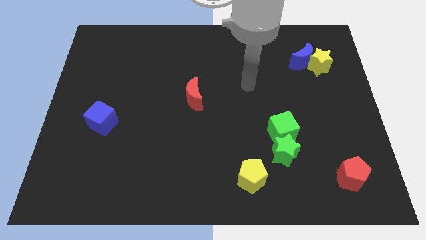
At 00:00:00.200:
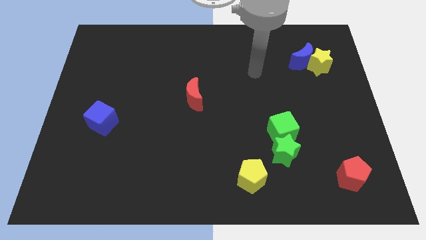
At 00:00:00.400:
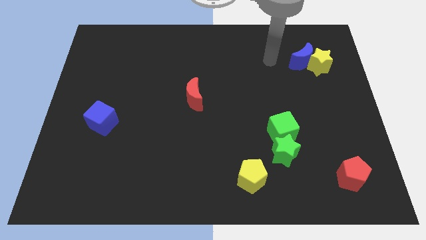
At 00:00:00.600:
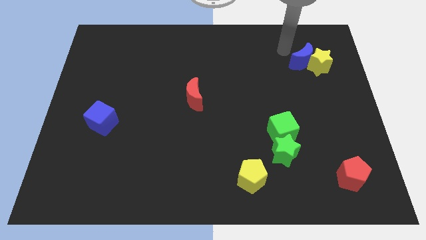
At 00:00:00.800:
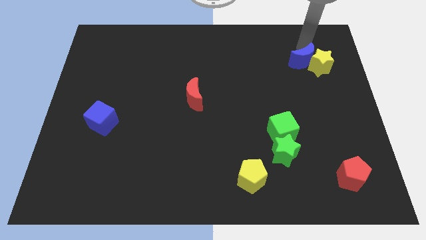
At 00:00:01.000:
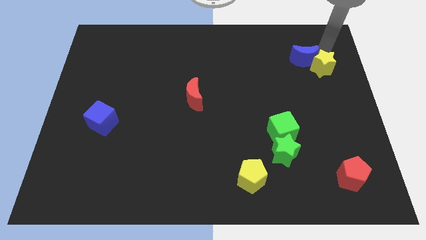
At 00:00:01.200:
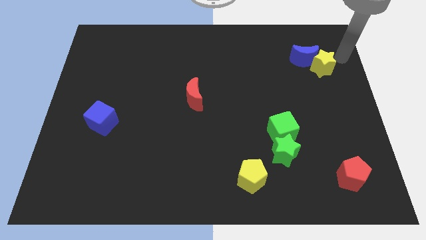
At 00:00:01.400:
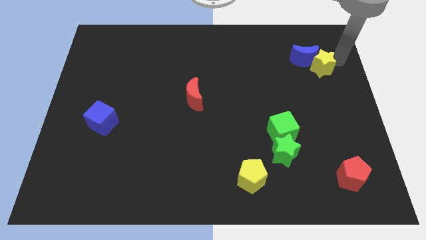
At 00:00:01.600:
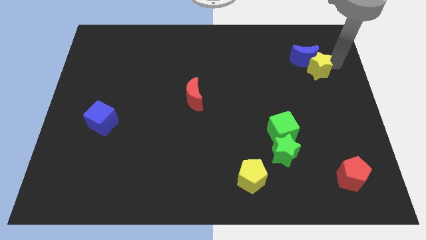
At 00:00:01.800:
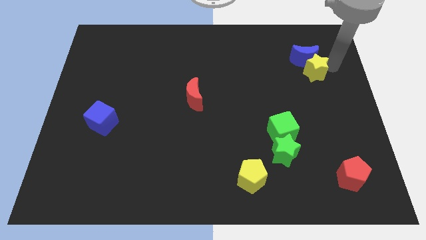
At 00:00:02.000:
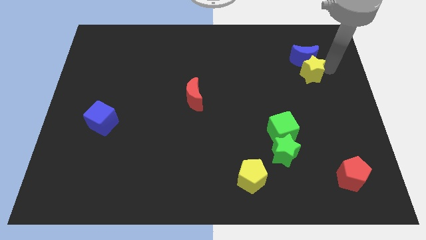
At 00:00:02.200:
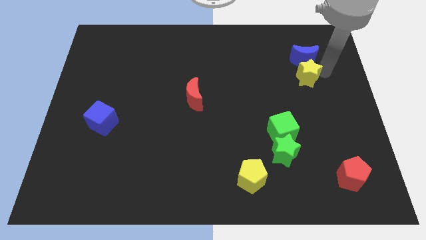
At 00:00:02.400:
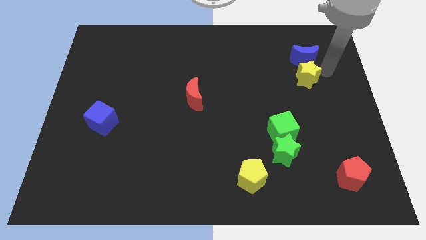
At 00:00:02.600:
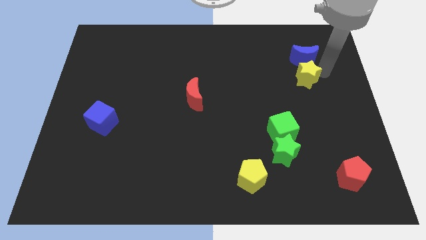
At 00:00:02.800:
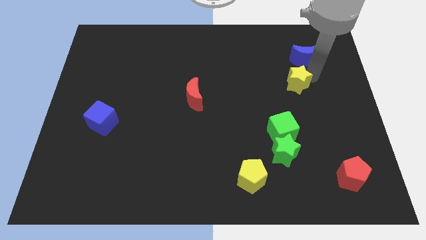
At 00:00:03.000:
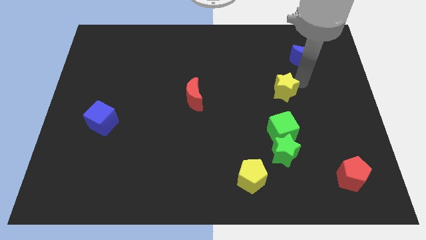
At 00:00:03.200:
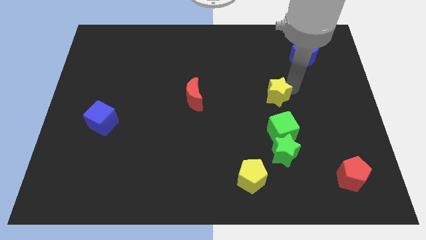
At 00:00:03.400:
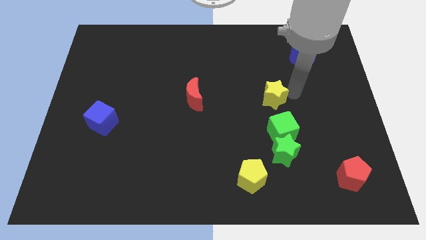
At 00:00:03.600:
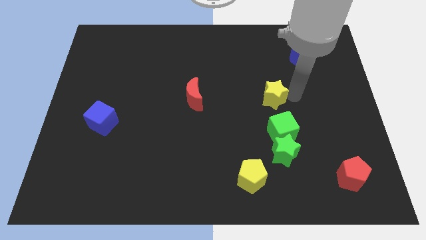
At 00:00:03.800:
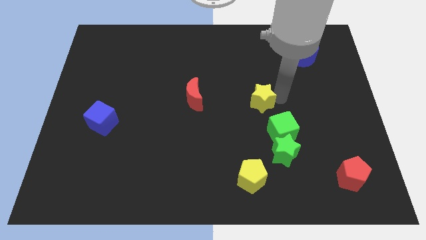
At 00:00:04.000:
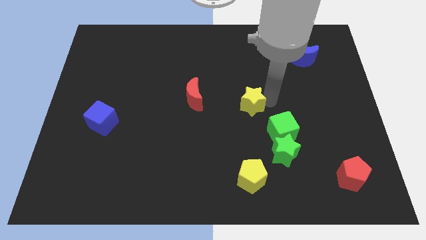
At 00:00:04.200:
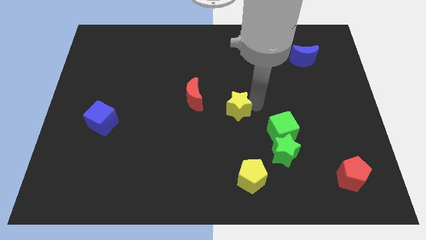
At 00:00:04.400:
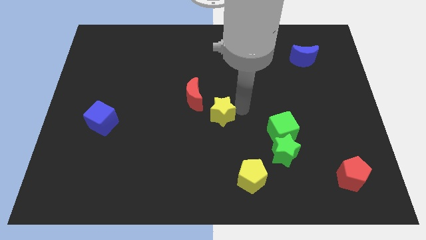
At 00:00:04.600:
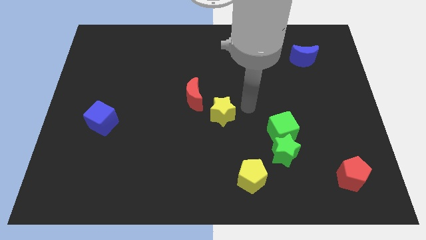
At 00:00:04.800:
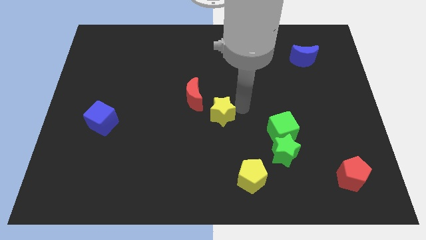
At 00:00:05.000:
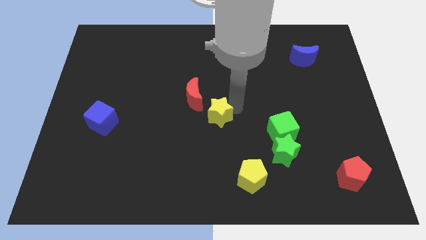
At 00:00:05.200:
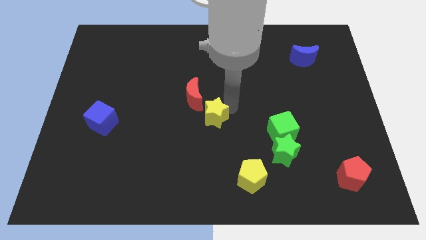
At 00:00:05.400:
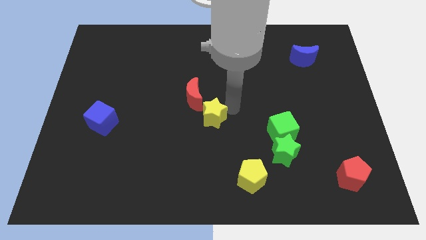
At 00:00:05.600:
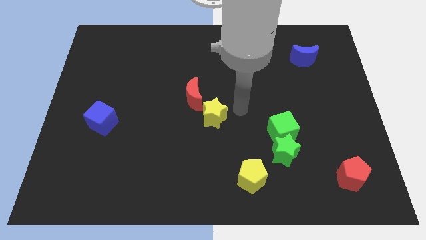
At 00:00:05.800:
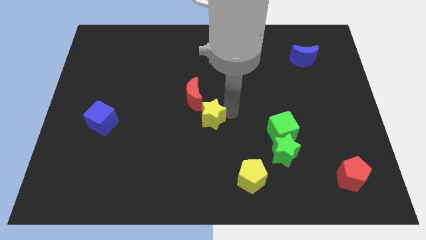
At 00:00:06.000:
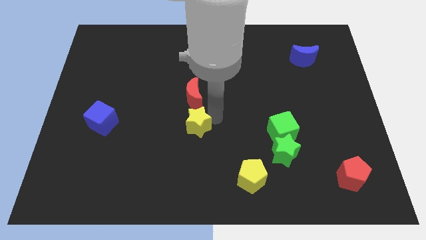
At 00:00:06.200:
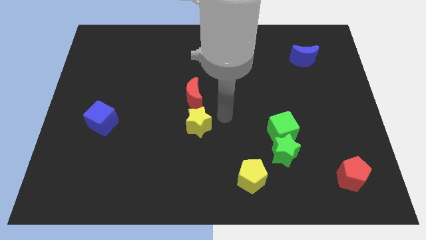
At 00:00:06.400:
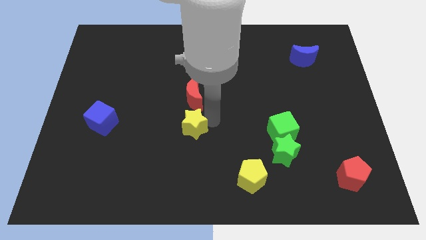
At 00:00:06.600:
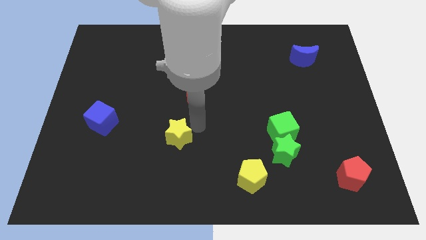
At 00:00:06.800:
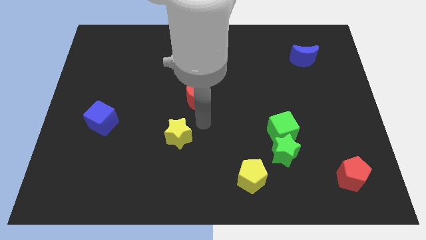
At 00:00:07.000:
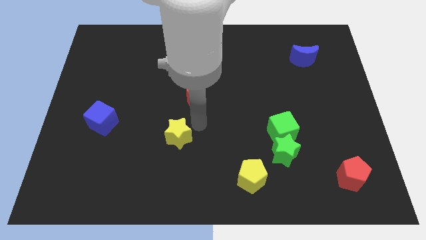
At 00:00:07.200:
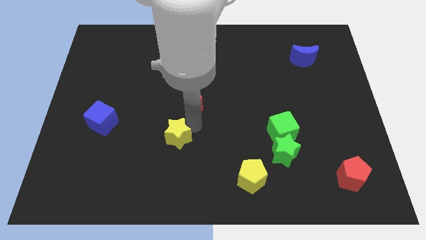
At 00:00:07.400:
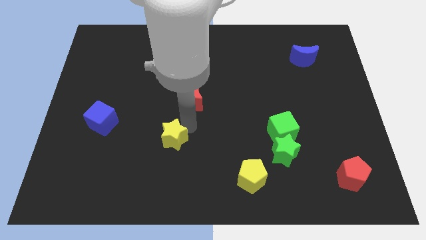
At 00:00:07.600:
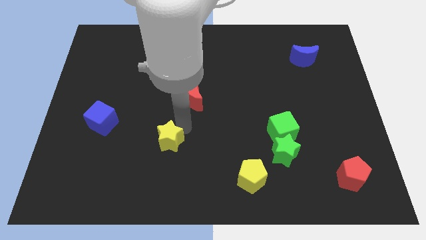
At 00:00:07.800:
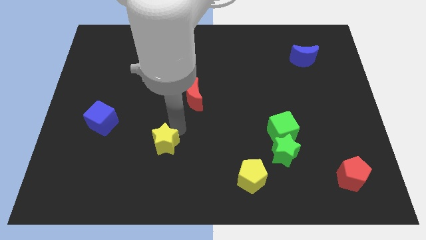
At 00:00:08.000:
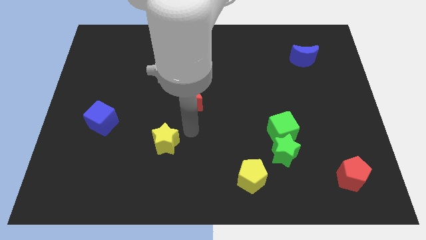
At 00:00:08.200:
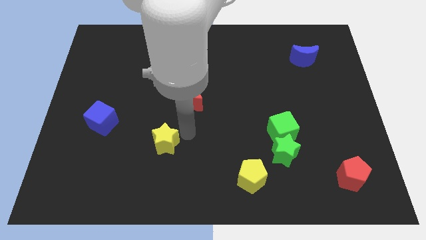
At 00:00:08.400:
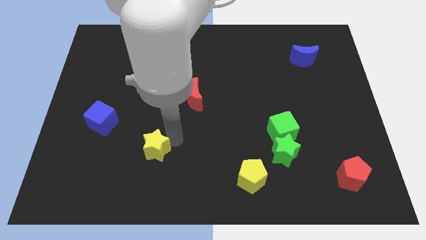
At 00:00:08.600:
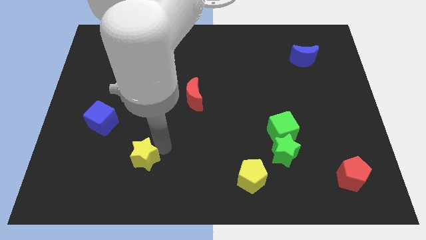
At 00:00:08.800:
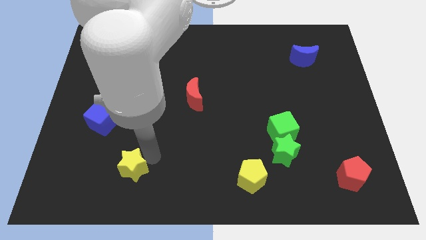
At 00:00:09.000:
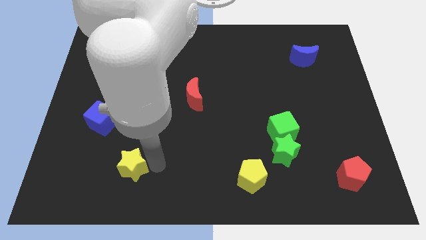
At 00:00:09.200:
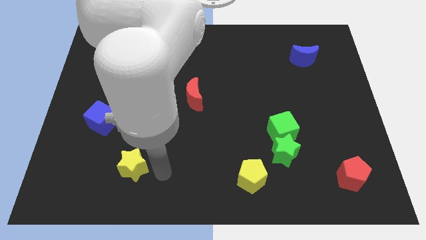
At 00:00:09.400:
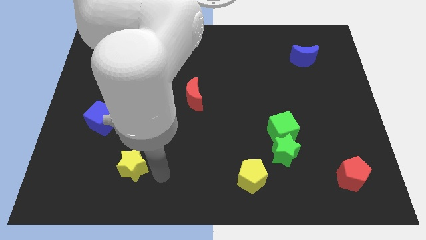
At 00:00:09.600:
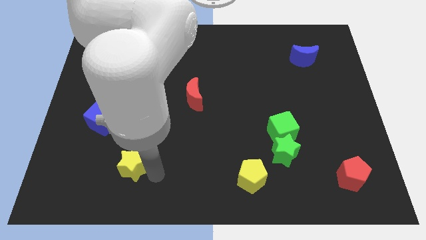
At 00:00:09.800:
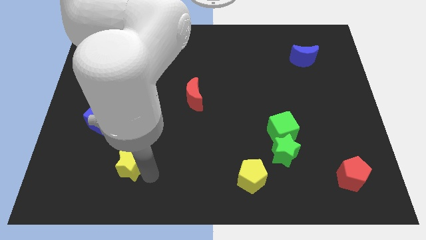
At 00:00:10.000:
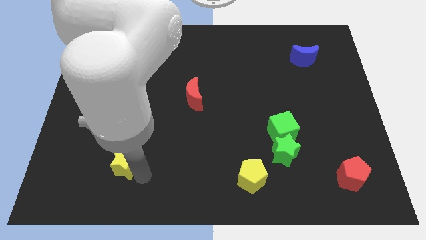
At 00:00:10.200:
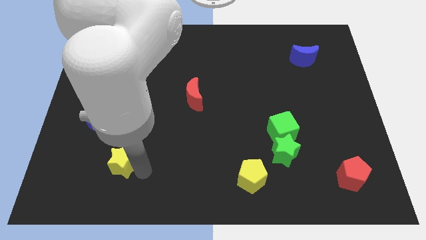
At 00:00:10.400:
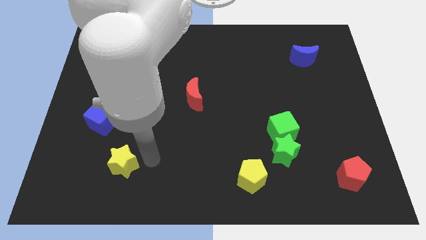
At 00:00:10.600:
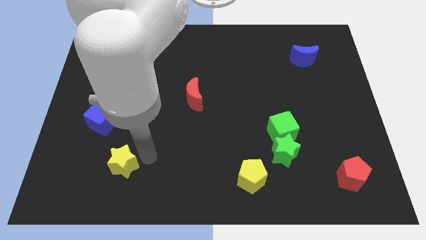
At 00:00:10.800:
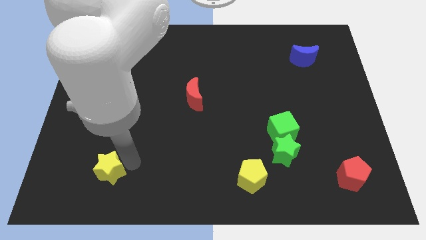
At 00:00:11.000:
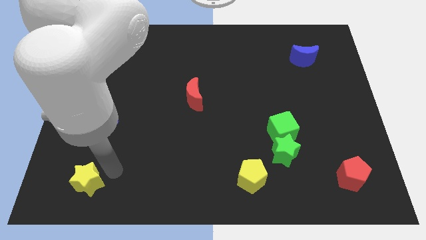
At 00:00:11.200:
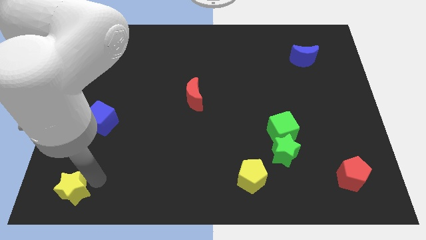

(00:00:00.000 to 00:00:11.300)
push the yellow star to the lower left corner

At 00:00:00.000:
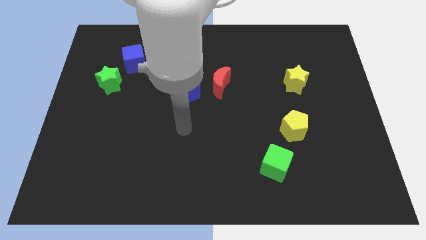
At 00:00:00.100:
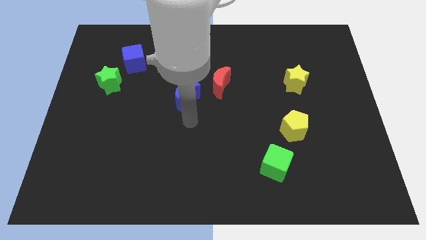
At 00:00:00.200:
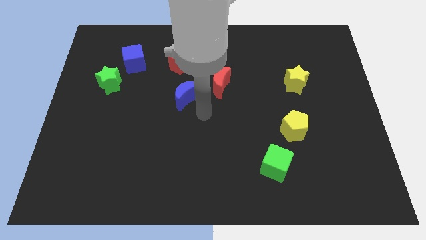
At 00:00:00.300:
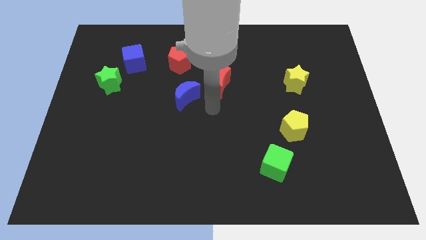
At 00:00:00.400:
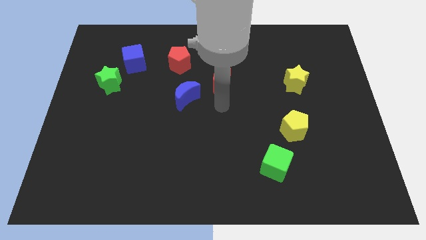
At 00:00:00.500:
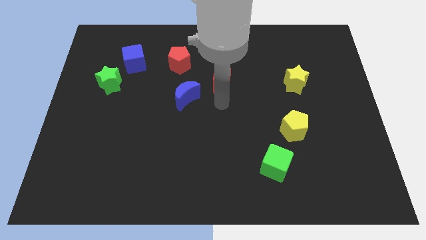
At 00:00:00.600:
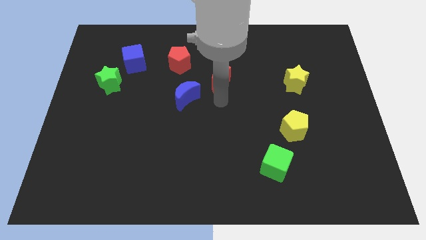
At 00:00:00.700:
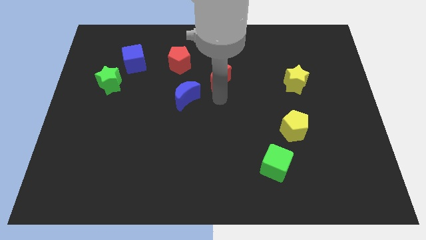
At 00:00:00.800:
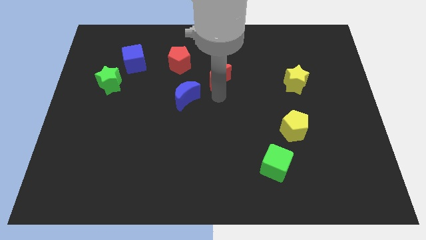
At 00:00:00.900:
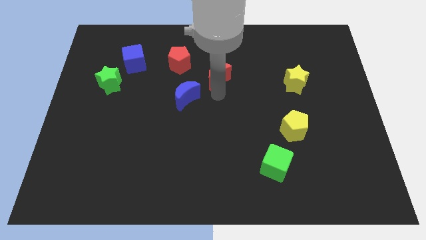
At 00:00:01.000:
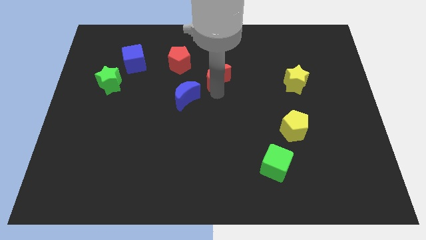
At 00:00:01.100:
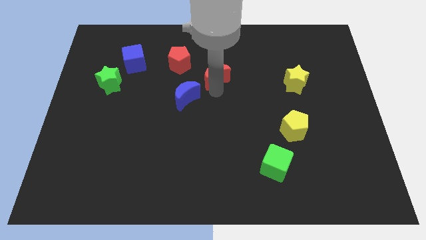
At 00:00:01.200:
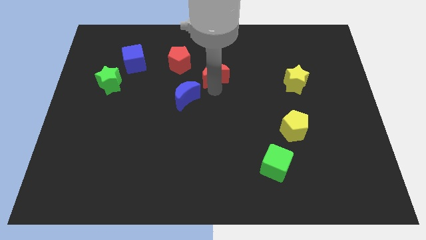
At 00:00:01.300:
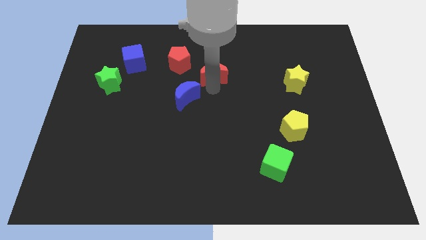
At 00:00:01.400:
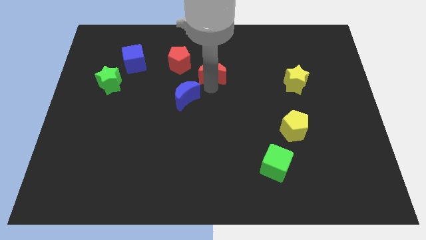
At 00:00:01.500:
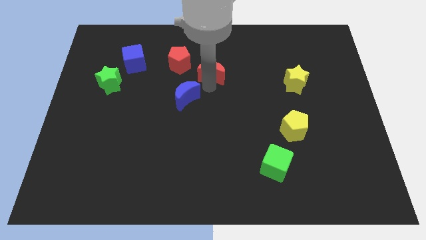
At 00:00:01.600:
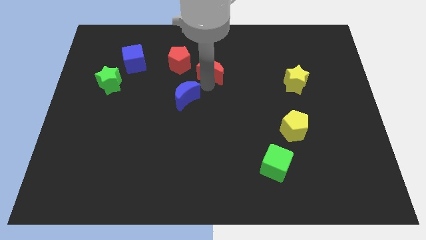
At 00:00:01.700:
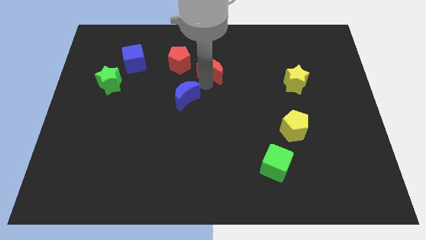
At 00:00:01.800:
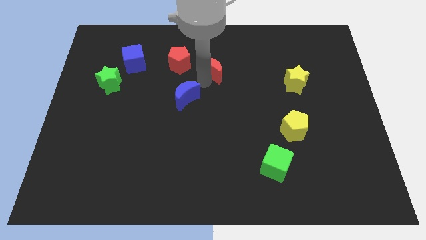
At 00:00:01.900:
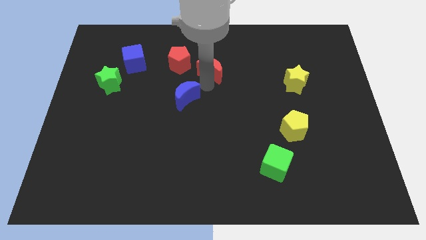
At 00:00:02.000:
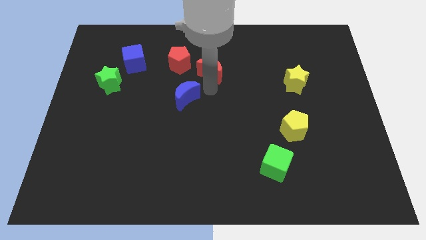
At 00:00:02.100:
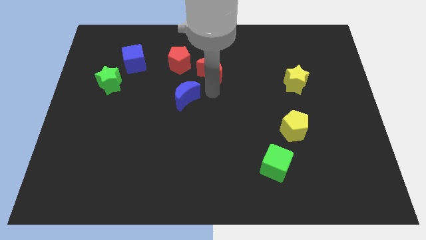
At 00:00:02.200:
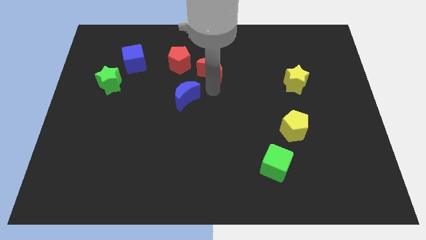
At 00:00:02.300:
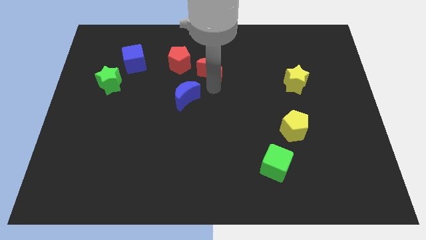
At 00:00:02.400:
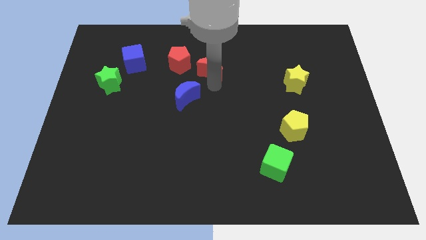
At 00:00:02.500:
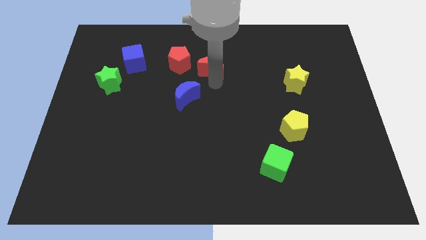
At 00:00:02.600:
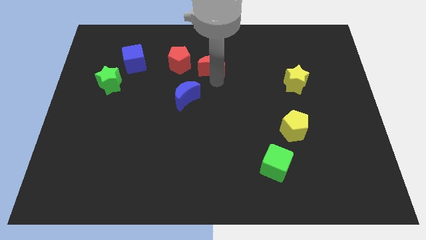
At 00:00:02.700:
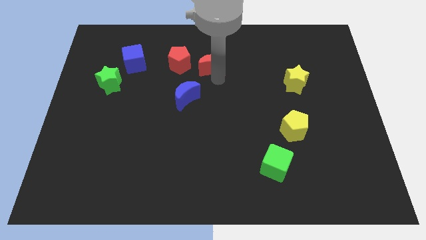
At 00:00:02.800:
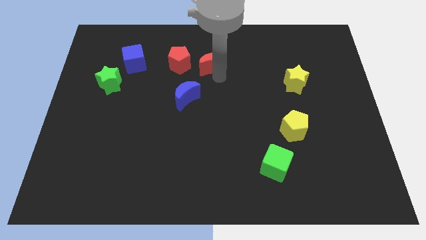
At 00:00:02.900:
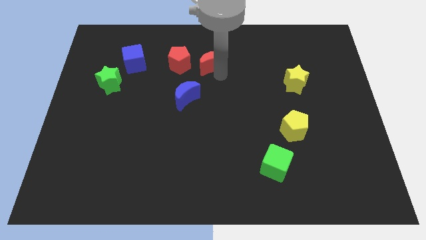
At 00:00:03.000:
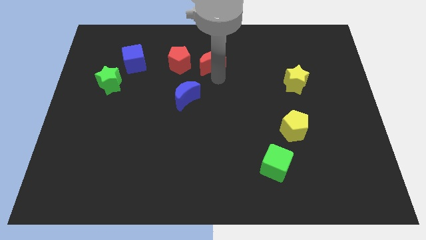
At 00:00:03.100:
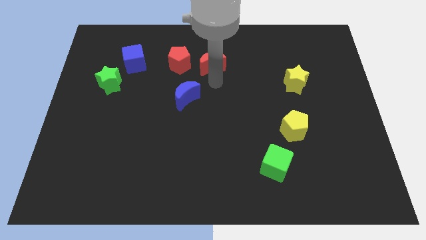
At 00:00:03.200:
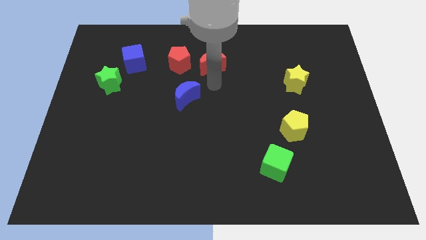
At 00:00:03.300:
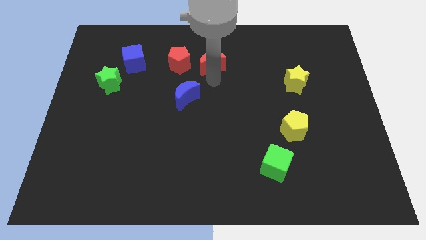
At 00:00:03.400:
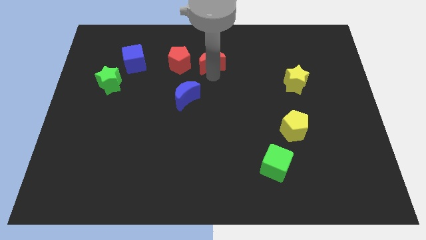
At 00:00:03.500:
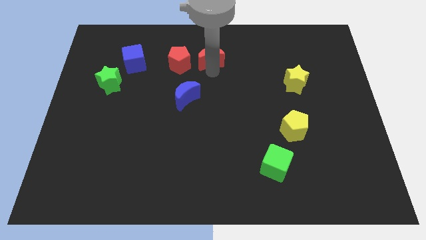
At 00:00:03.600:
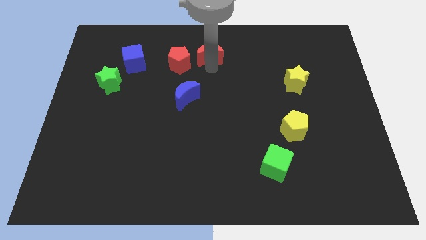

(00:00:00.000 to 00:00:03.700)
push the red moon to the towards your base
